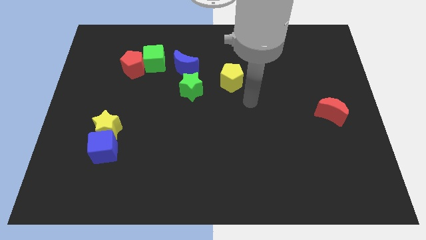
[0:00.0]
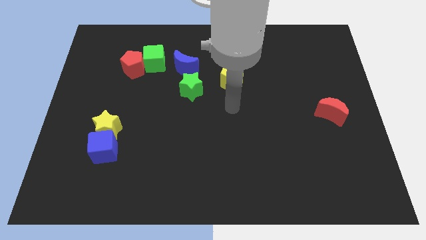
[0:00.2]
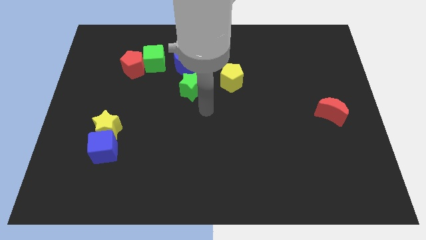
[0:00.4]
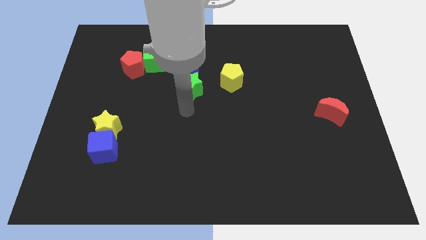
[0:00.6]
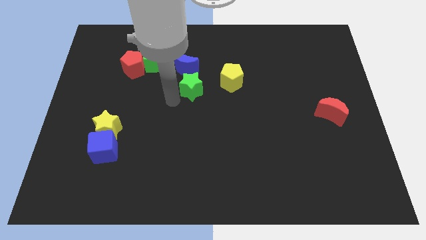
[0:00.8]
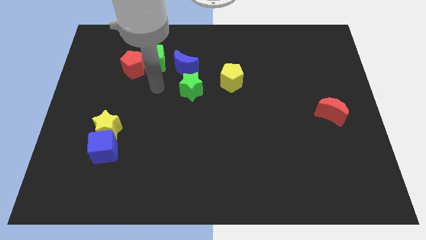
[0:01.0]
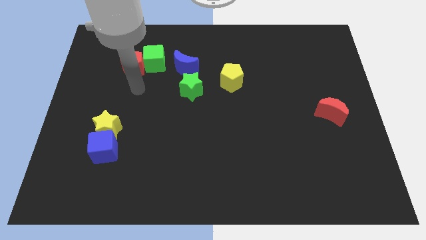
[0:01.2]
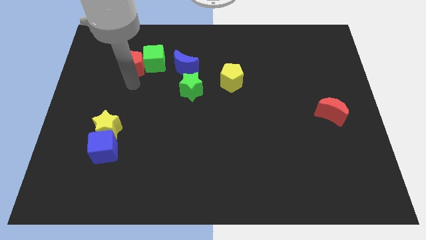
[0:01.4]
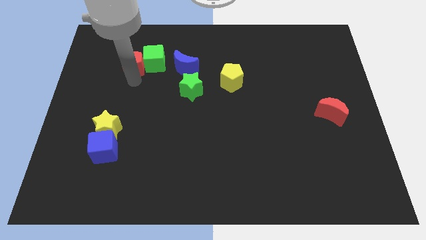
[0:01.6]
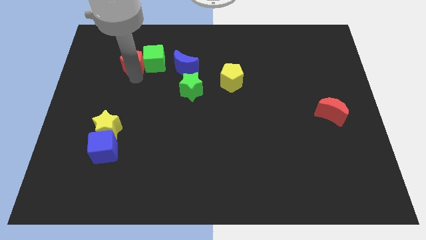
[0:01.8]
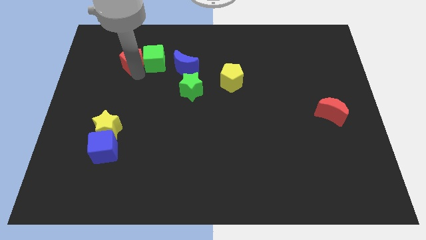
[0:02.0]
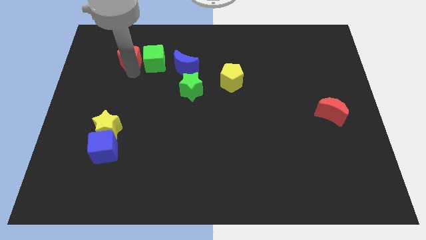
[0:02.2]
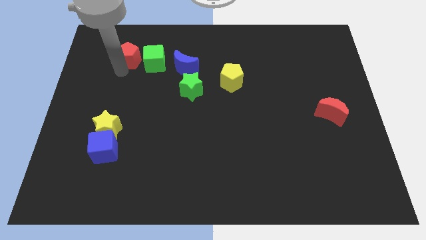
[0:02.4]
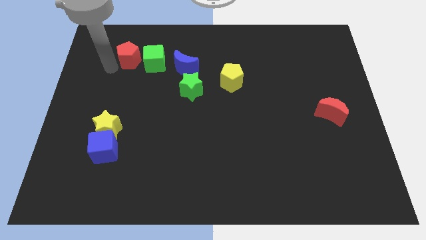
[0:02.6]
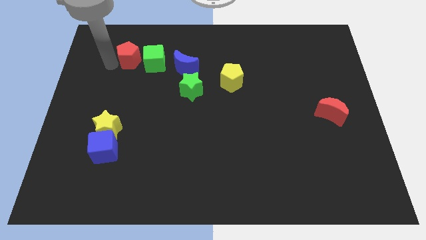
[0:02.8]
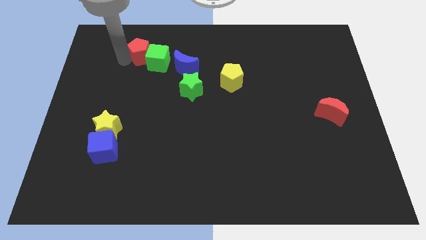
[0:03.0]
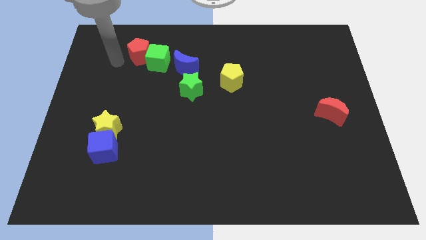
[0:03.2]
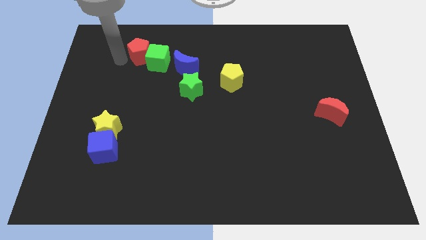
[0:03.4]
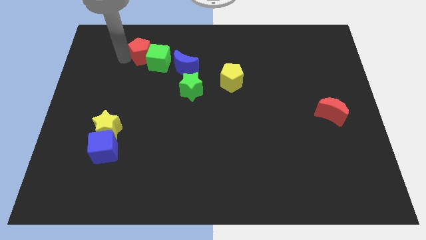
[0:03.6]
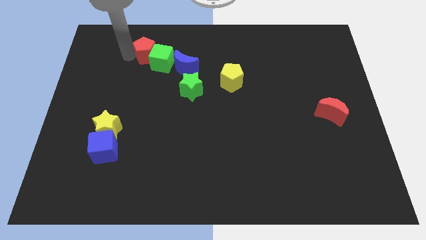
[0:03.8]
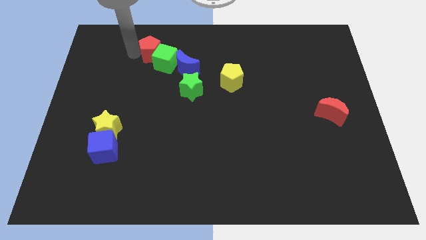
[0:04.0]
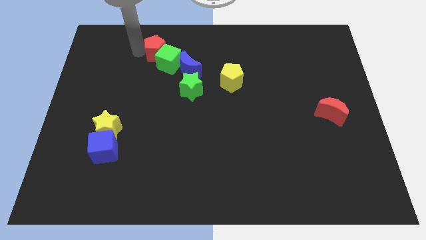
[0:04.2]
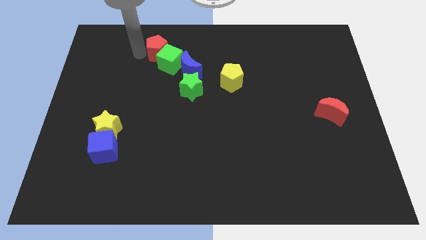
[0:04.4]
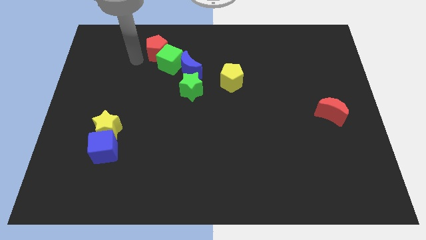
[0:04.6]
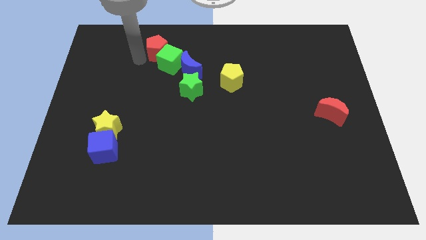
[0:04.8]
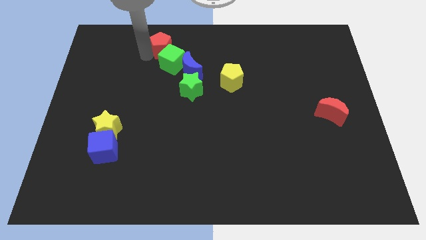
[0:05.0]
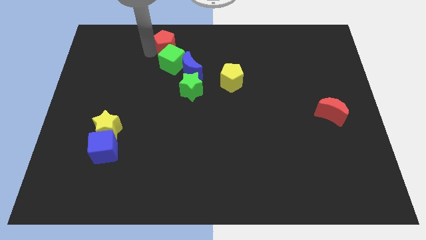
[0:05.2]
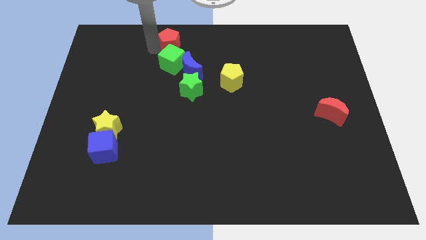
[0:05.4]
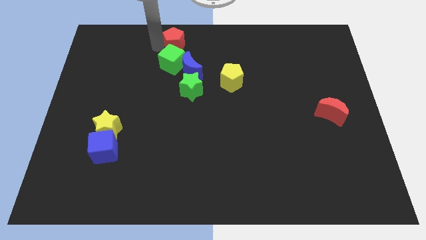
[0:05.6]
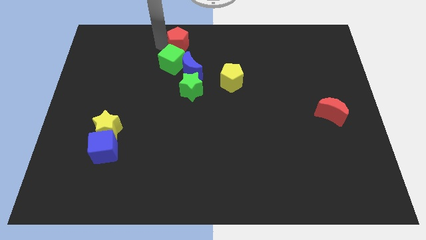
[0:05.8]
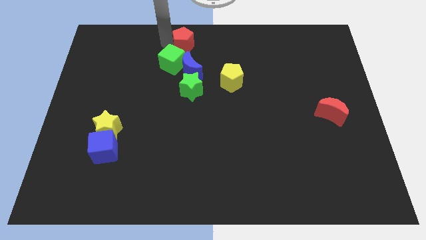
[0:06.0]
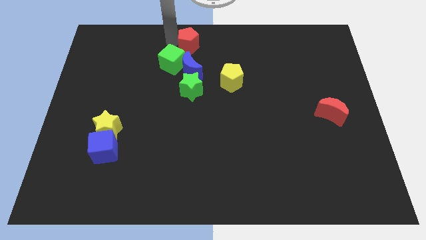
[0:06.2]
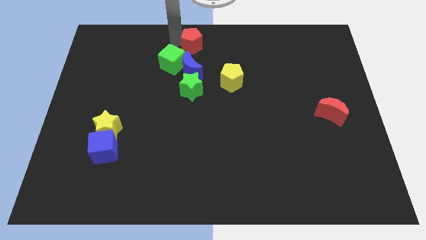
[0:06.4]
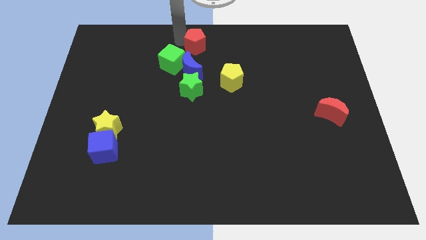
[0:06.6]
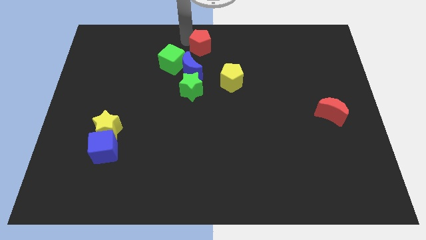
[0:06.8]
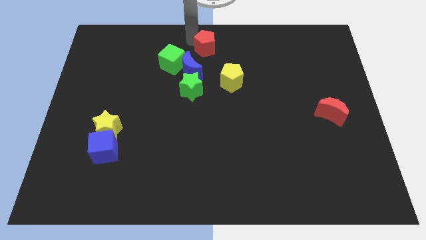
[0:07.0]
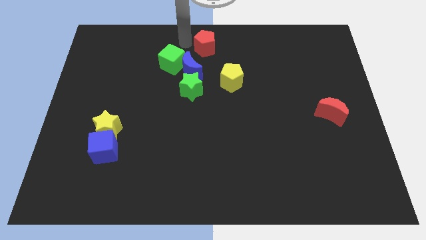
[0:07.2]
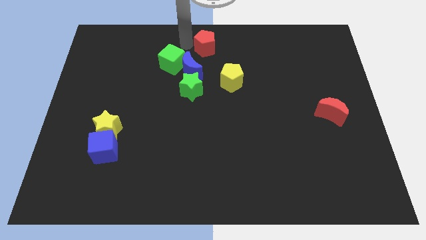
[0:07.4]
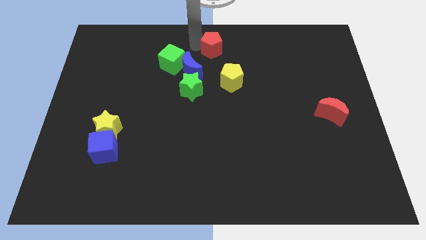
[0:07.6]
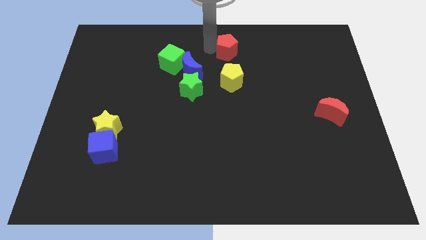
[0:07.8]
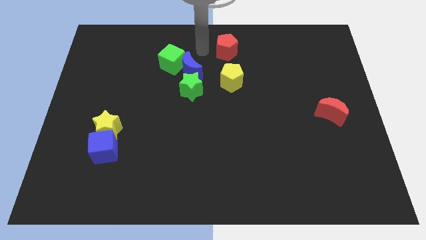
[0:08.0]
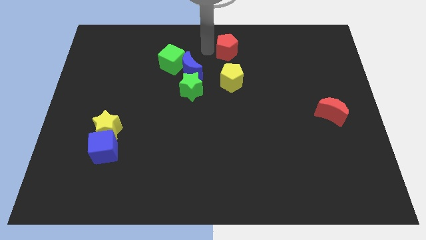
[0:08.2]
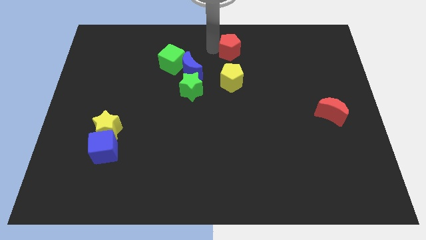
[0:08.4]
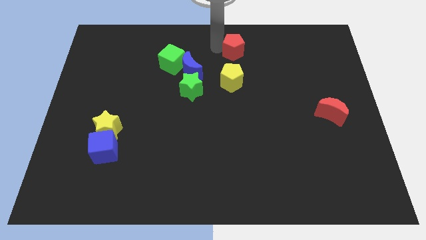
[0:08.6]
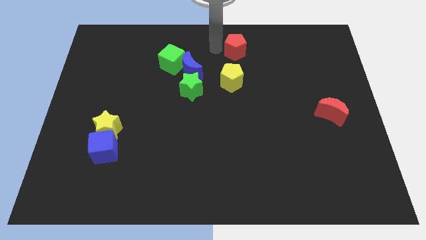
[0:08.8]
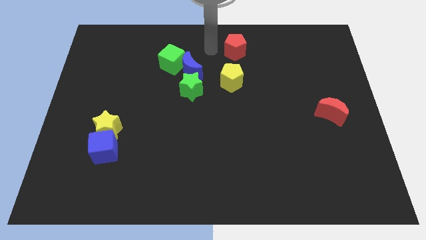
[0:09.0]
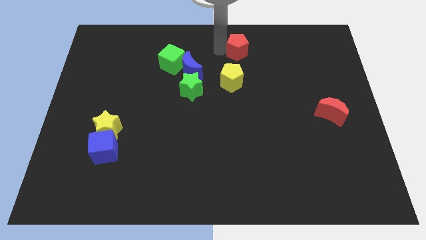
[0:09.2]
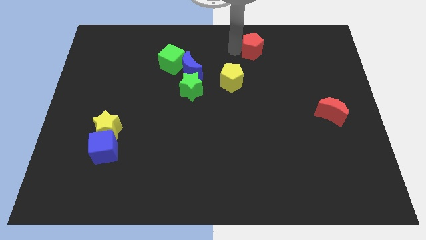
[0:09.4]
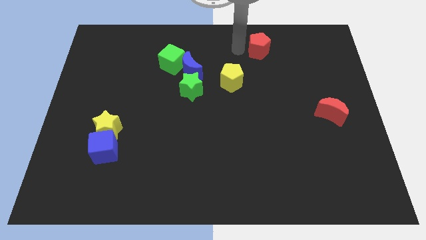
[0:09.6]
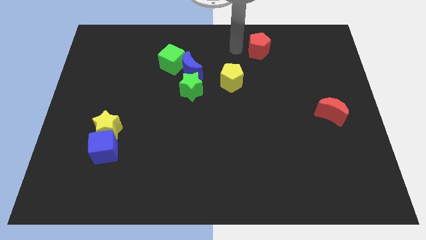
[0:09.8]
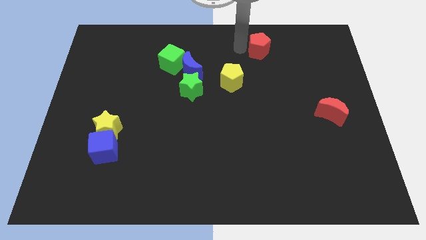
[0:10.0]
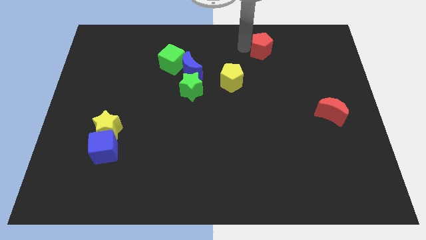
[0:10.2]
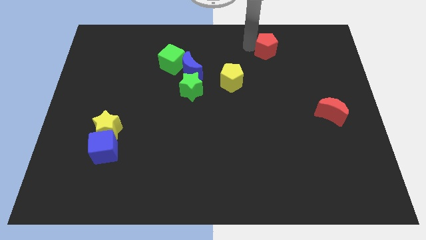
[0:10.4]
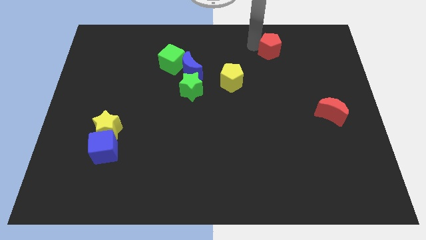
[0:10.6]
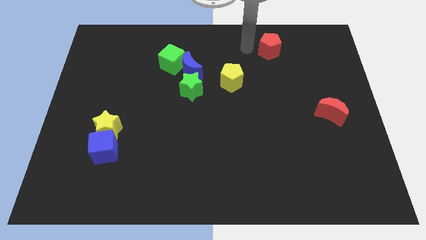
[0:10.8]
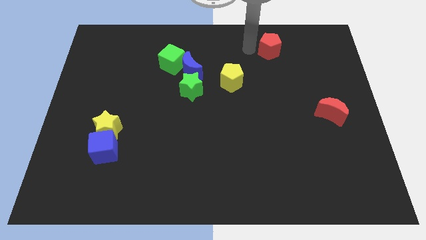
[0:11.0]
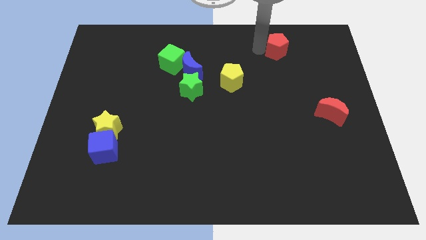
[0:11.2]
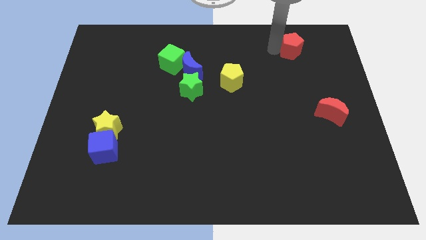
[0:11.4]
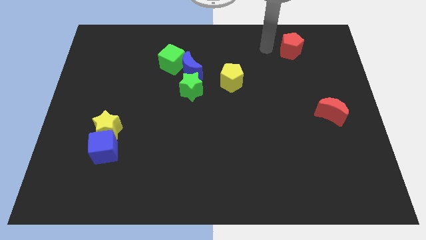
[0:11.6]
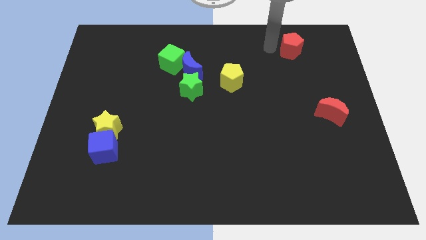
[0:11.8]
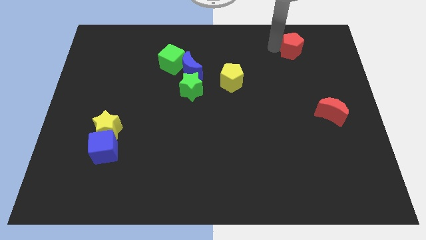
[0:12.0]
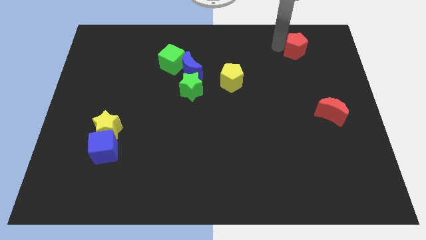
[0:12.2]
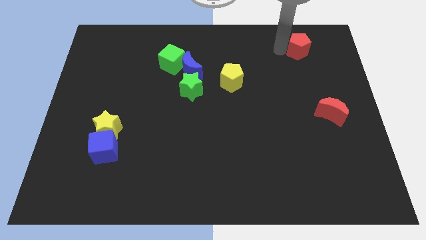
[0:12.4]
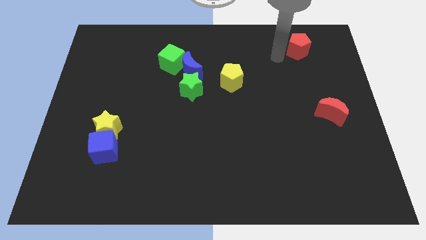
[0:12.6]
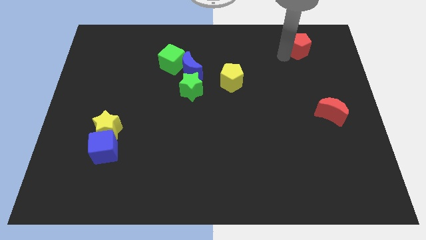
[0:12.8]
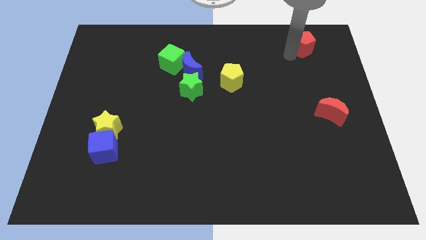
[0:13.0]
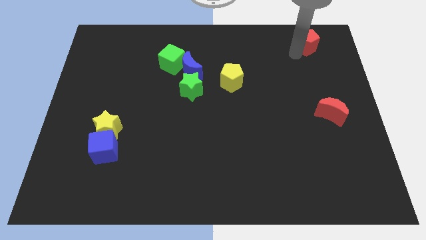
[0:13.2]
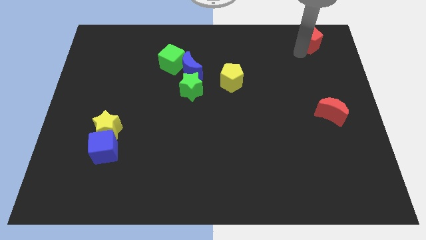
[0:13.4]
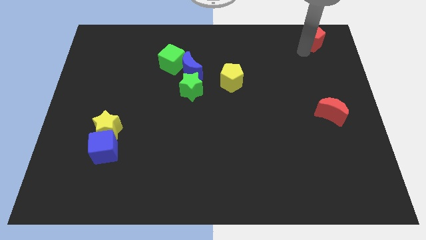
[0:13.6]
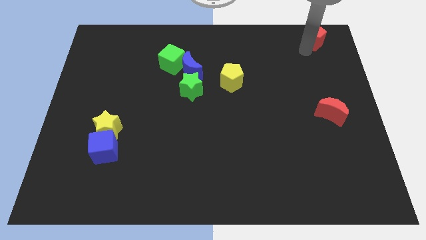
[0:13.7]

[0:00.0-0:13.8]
push the red pentagon to the top right of the board

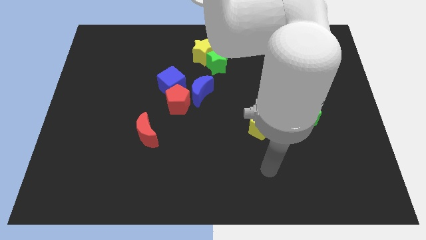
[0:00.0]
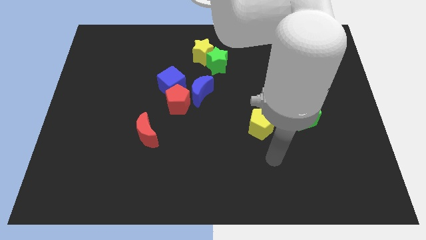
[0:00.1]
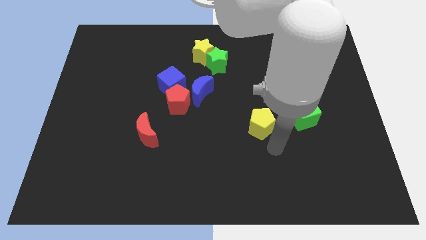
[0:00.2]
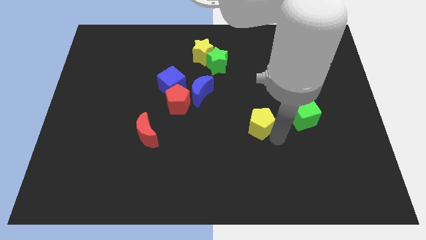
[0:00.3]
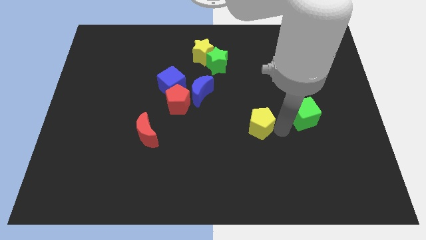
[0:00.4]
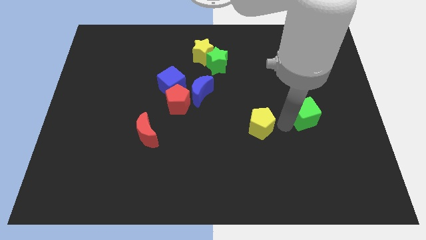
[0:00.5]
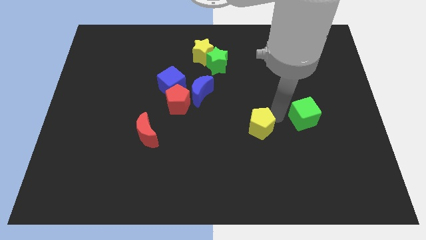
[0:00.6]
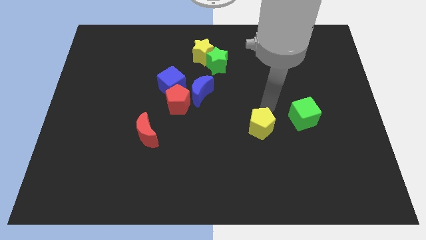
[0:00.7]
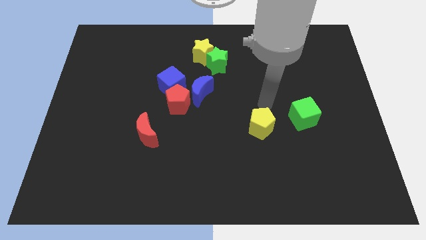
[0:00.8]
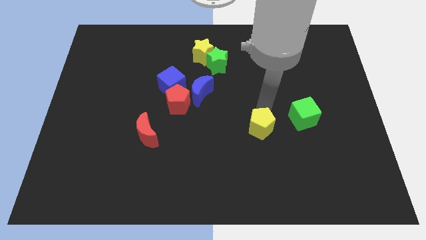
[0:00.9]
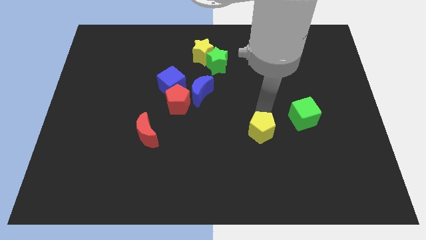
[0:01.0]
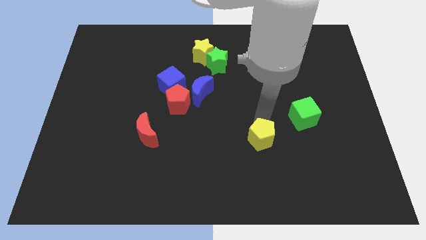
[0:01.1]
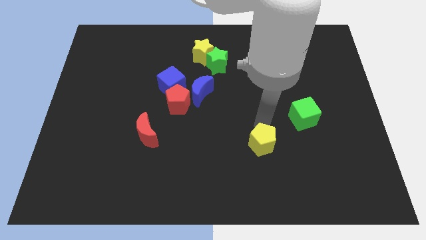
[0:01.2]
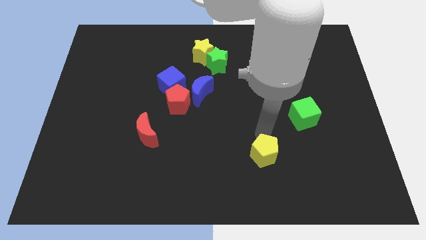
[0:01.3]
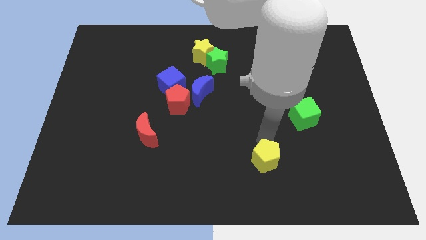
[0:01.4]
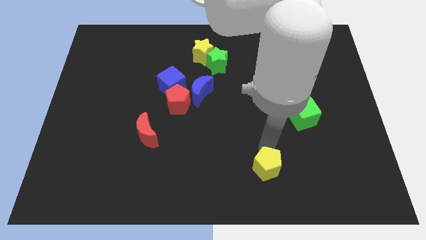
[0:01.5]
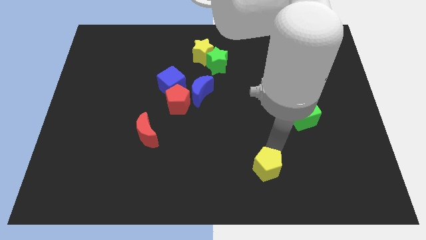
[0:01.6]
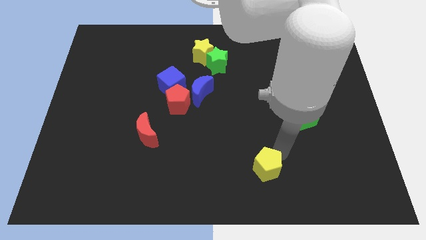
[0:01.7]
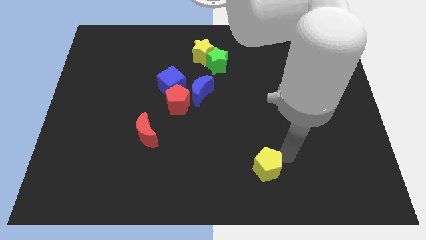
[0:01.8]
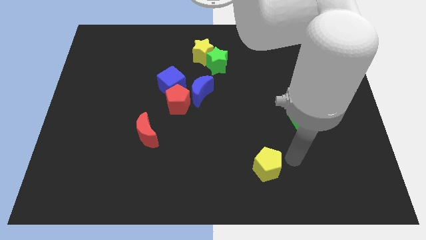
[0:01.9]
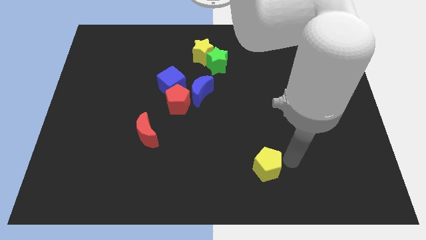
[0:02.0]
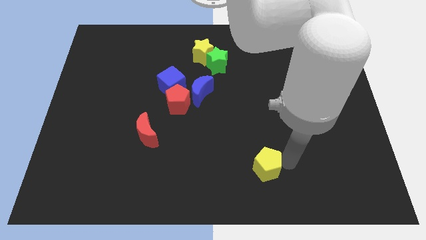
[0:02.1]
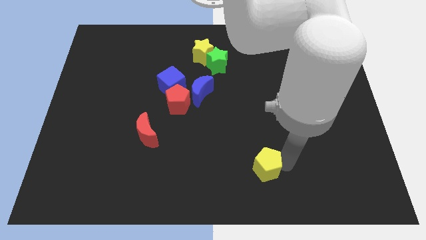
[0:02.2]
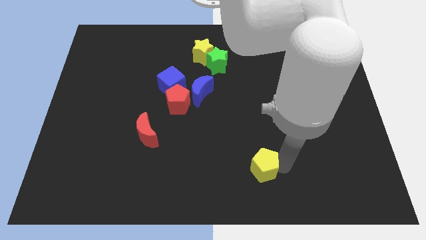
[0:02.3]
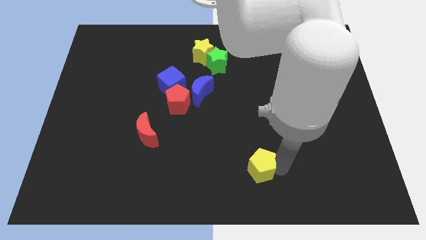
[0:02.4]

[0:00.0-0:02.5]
put the yellow pentagon to the bottom side
